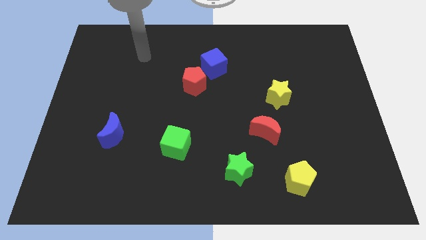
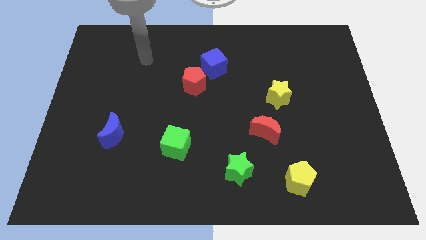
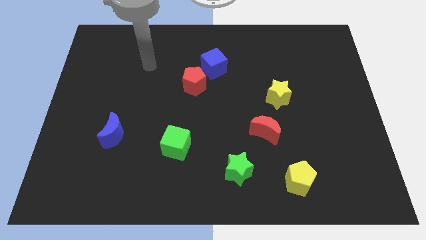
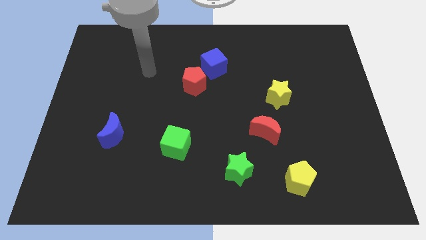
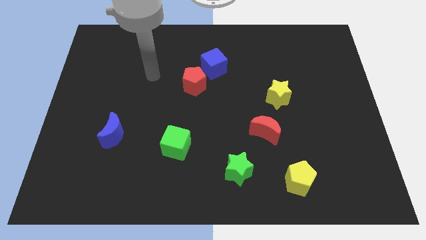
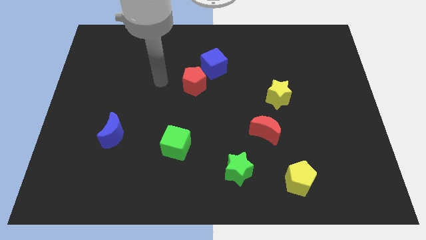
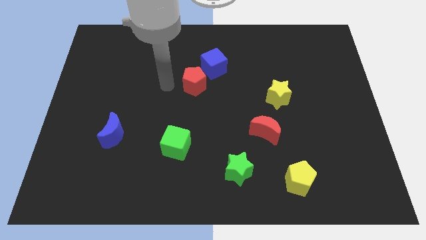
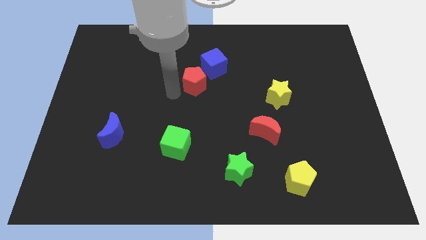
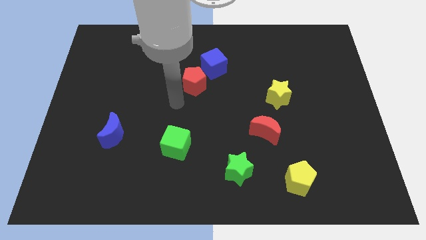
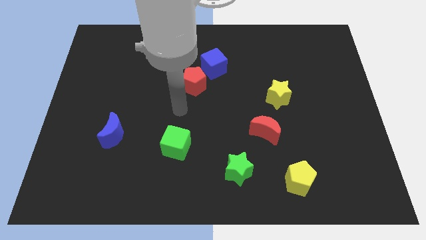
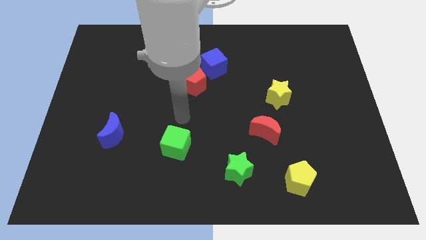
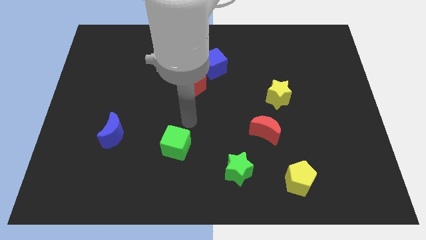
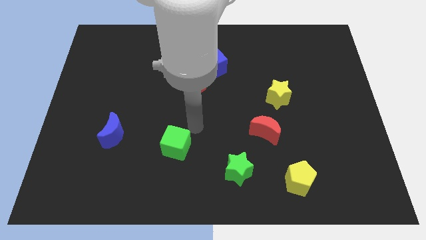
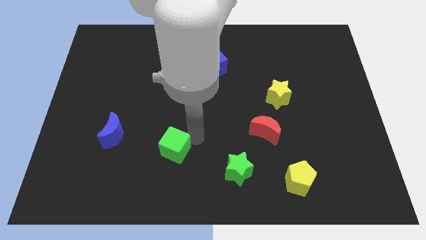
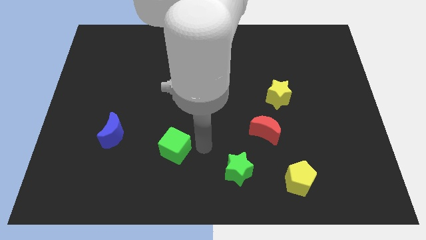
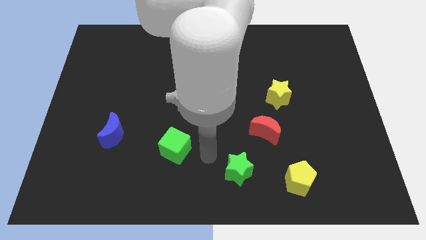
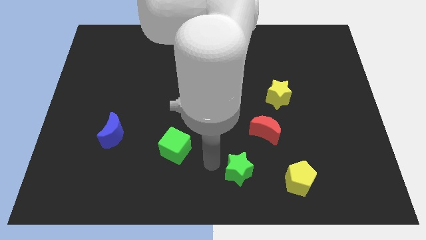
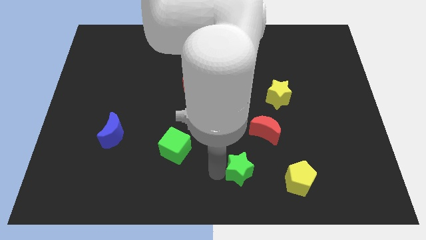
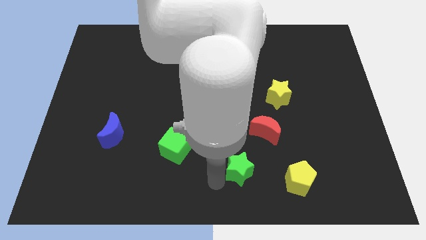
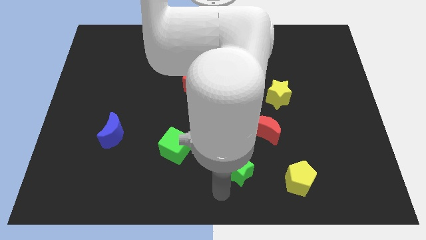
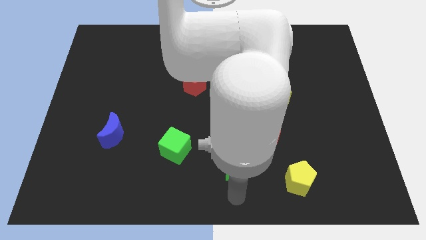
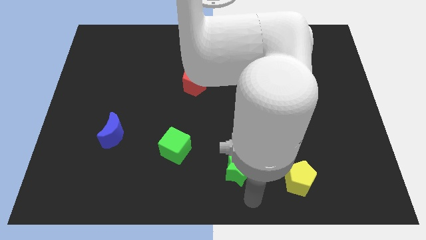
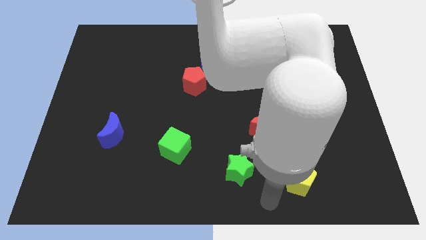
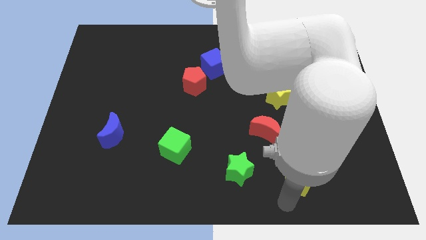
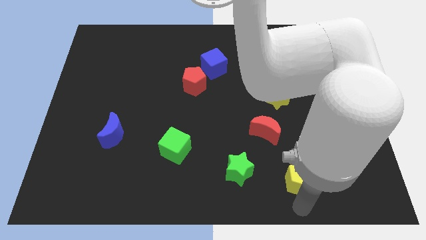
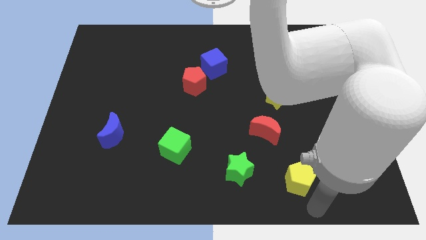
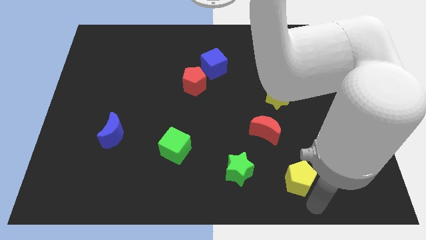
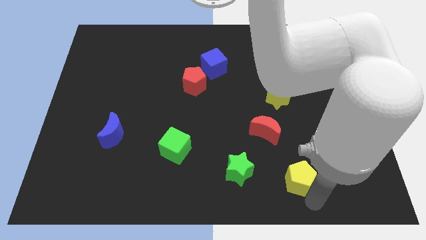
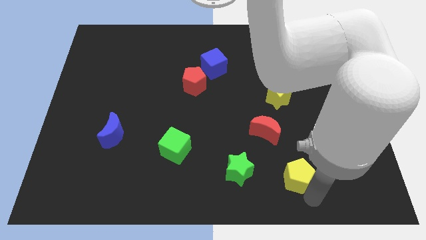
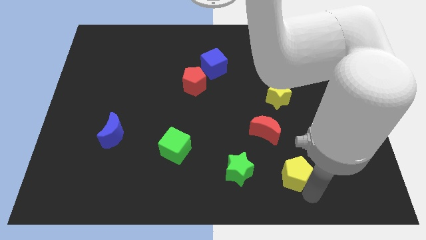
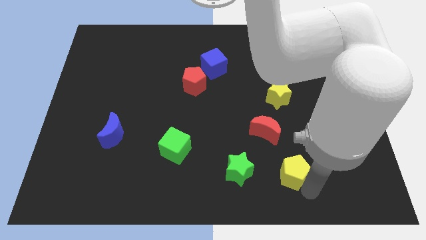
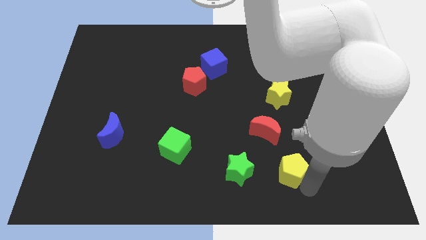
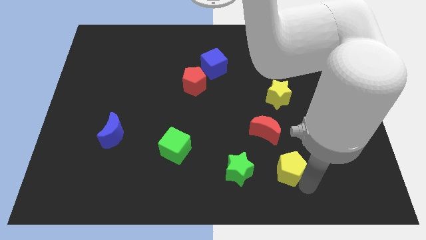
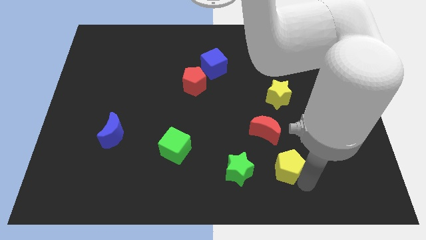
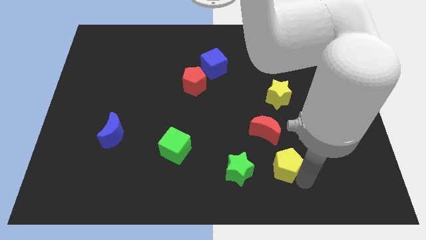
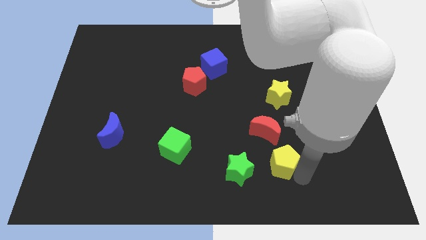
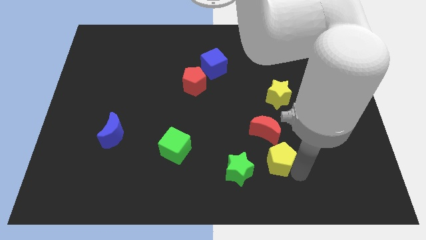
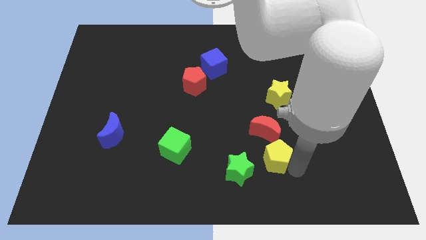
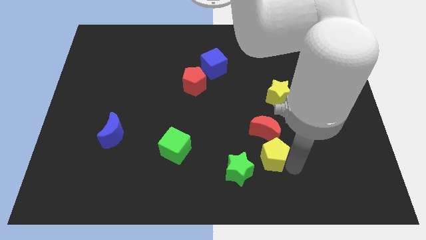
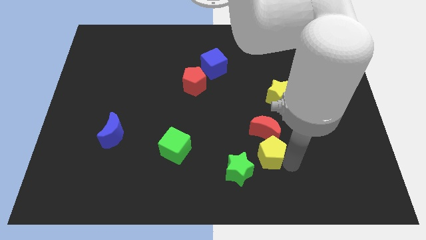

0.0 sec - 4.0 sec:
slide the yellow pentagon close to the red moon

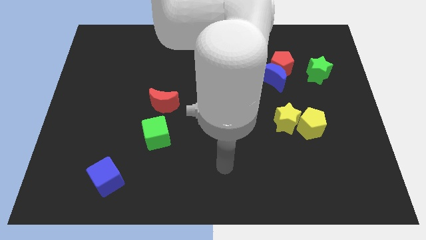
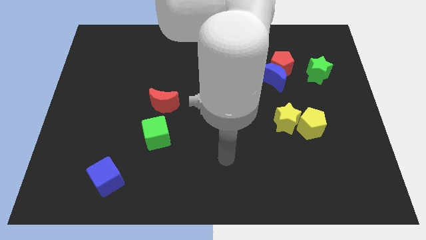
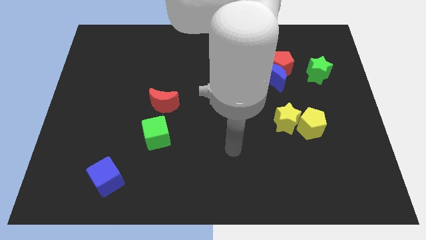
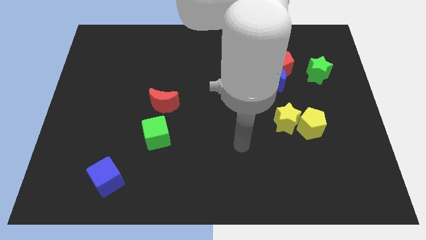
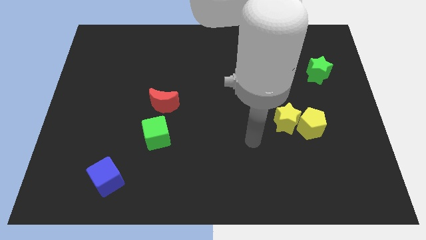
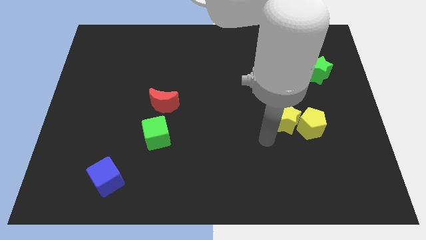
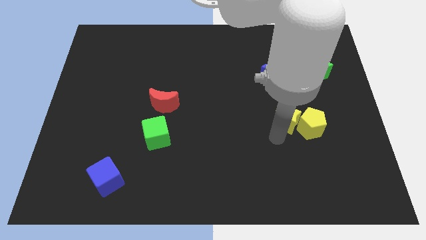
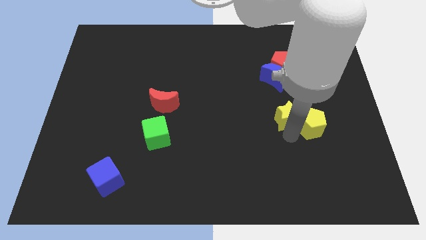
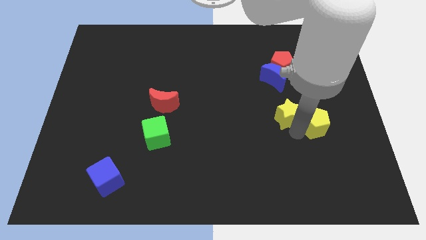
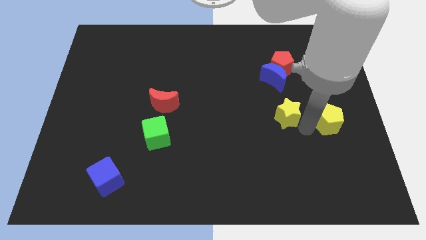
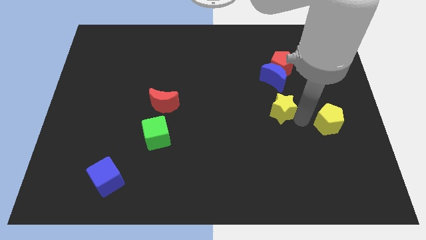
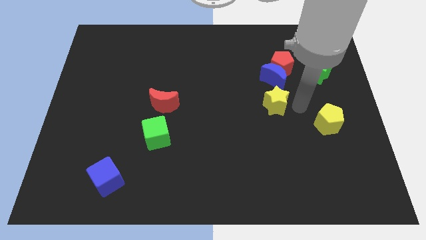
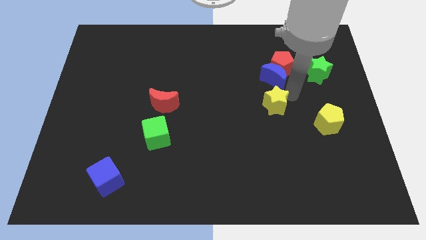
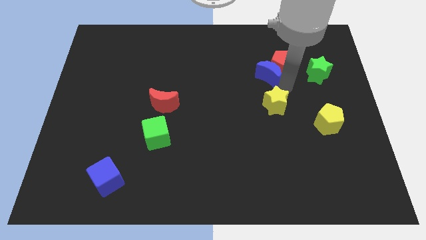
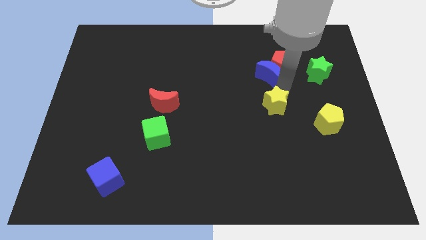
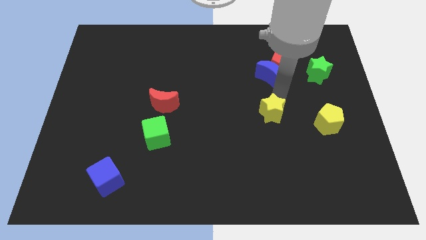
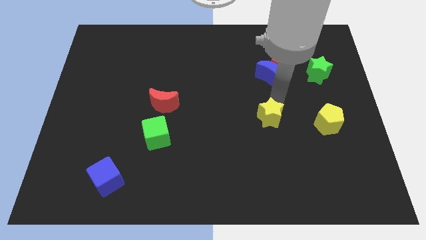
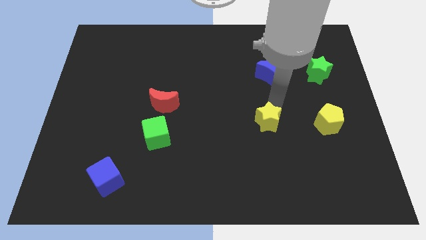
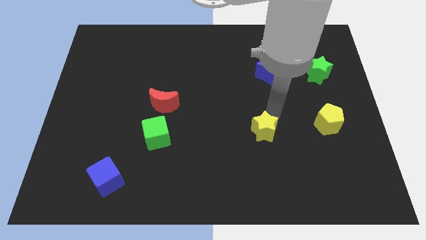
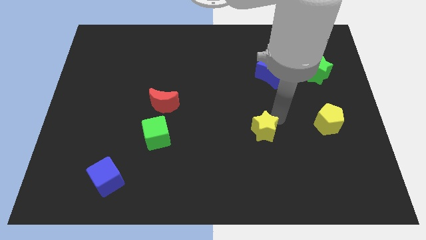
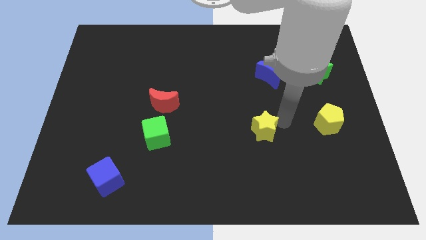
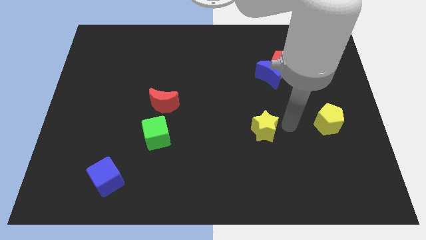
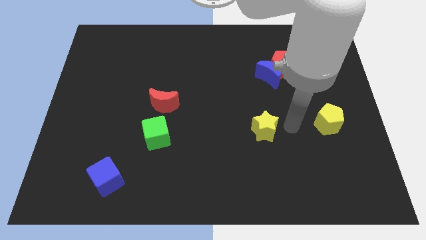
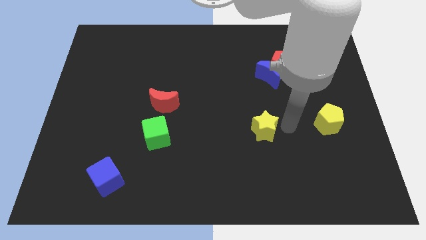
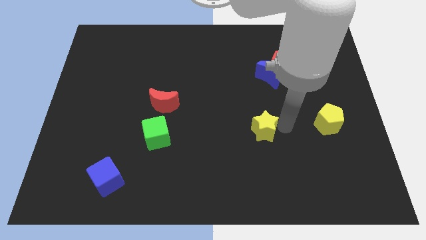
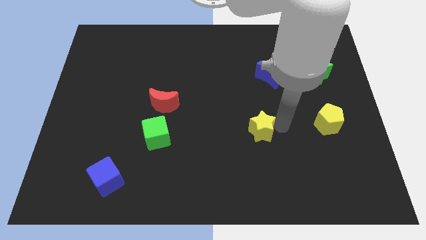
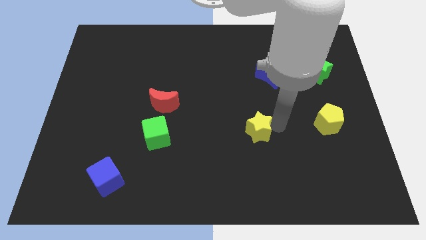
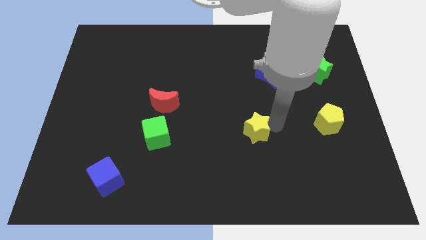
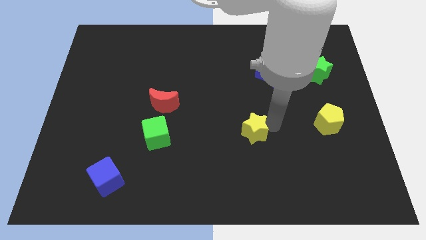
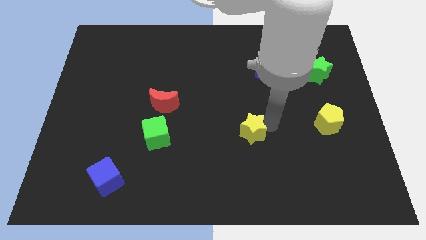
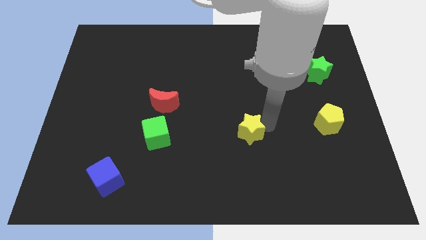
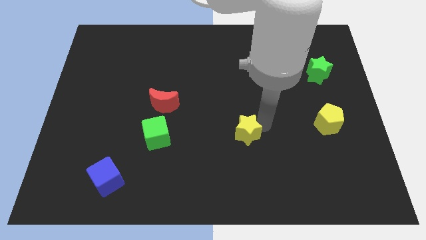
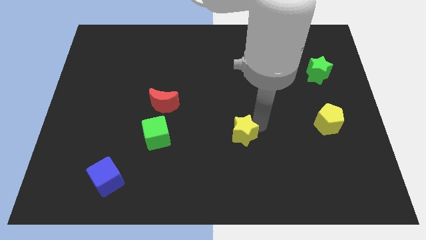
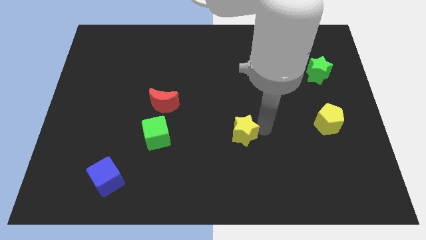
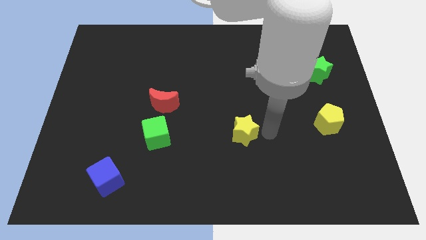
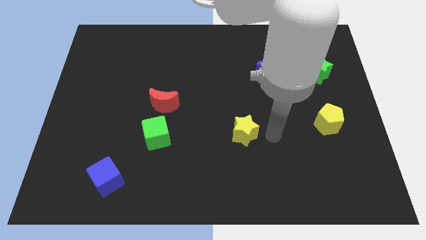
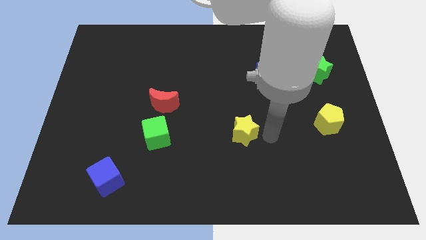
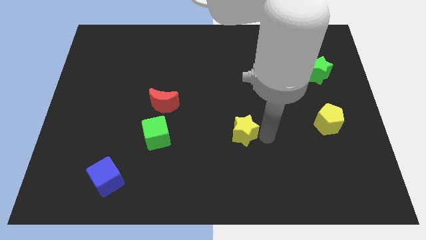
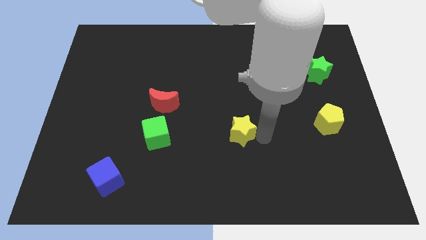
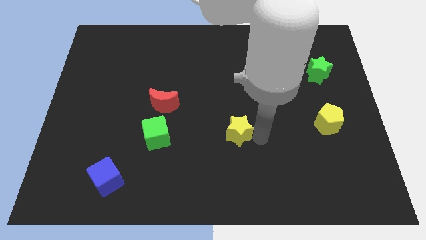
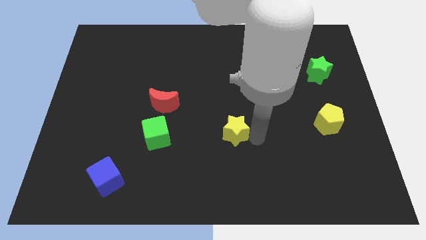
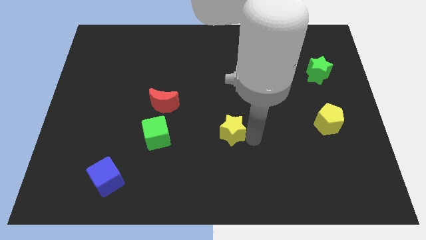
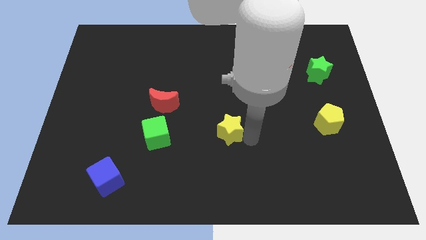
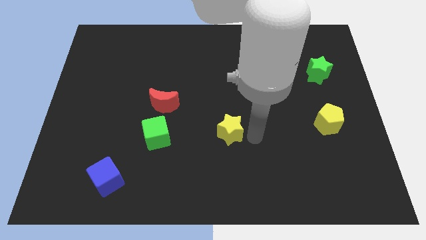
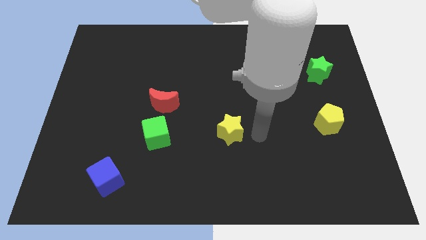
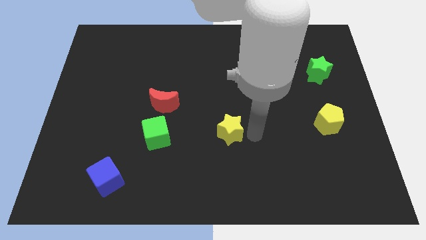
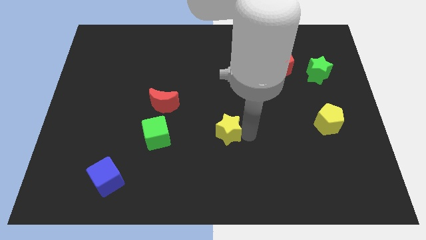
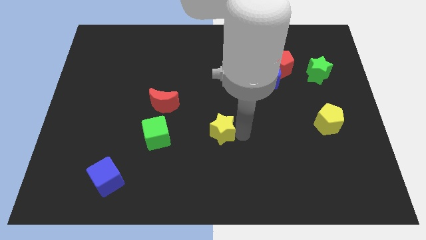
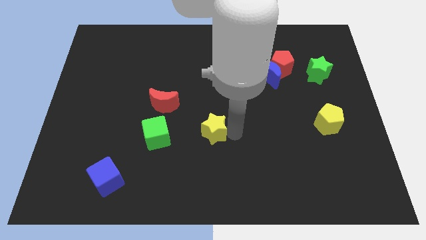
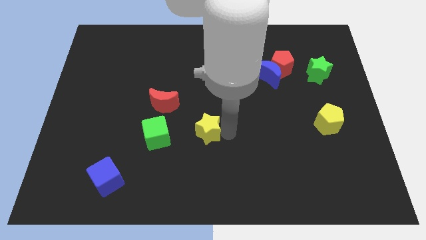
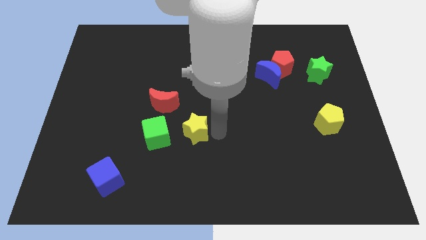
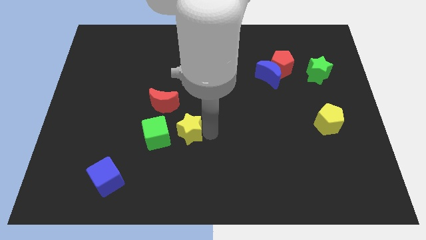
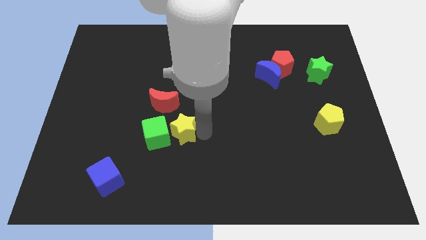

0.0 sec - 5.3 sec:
put the yellow star next to the green cube
